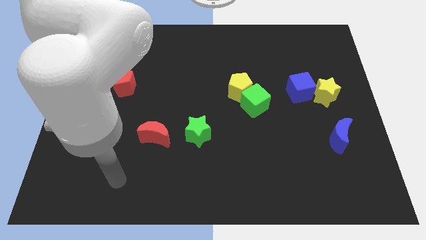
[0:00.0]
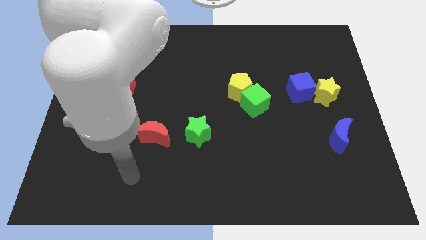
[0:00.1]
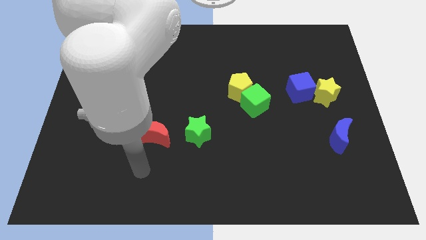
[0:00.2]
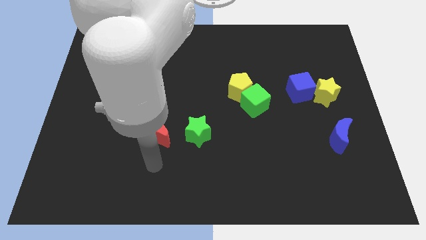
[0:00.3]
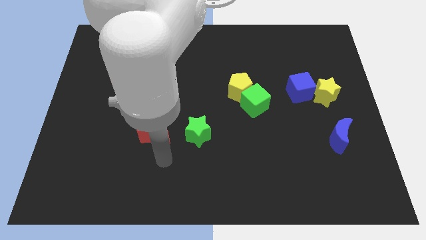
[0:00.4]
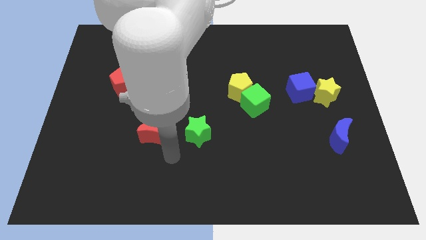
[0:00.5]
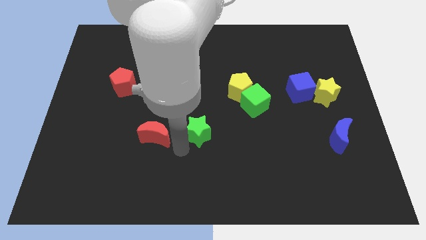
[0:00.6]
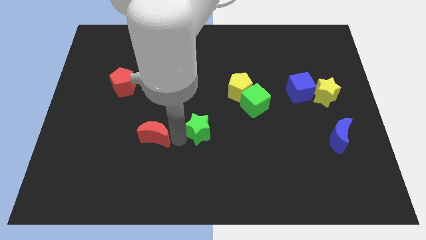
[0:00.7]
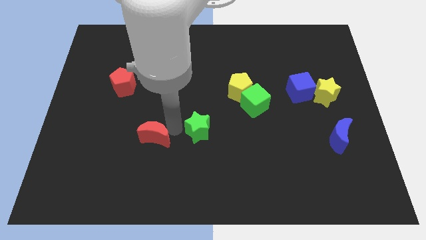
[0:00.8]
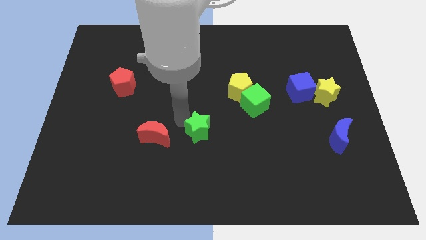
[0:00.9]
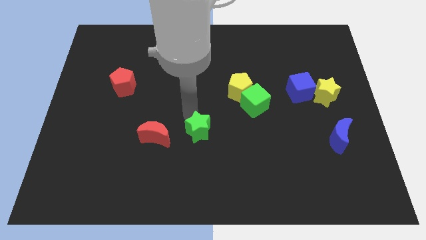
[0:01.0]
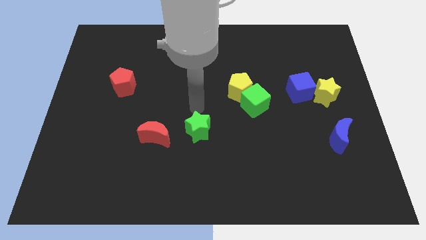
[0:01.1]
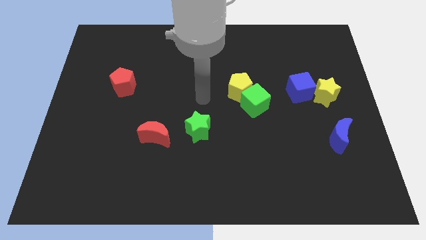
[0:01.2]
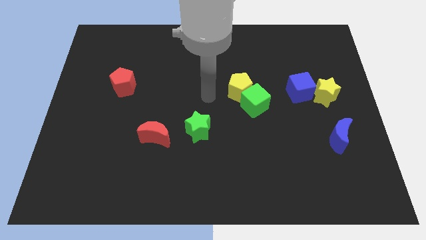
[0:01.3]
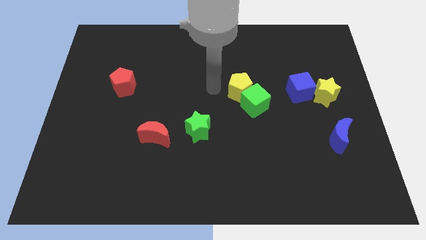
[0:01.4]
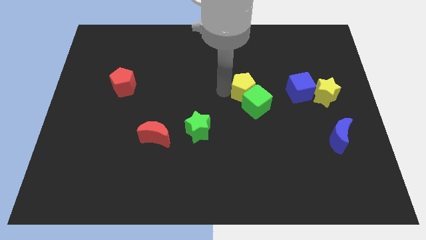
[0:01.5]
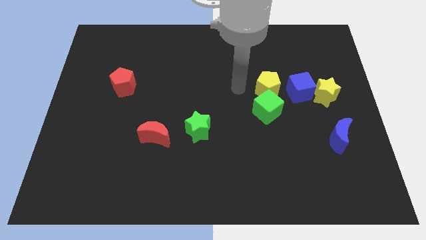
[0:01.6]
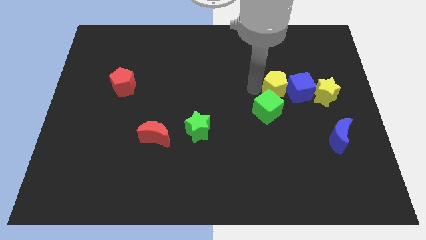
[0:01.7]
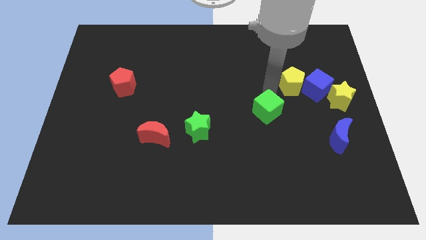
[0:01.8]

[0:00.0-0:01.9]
separate the green cube from the yellow pentagon

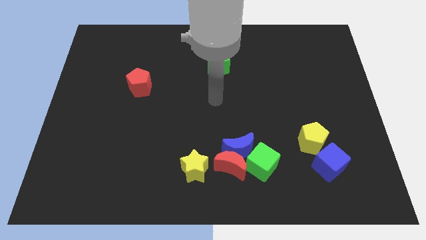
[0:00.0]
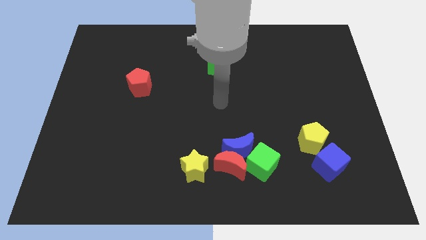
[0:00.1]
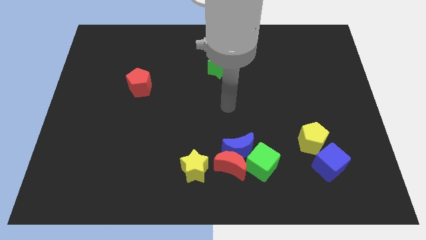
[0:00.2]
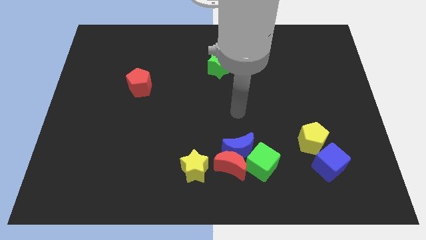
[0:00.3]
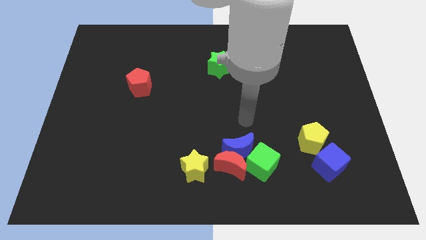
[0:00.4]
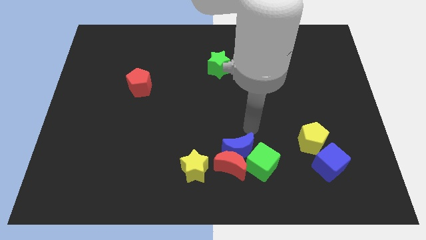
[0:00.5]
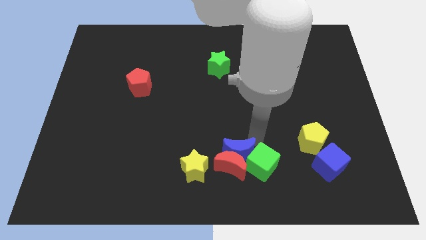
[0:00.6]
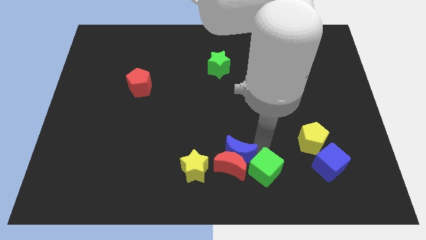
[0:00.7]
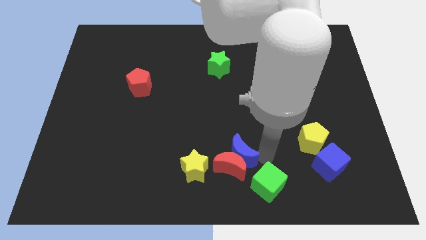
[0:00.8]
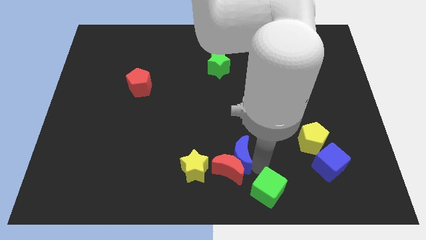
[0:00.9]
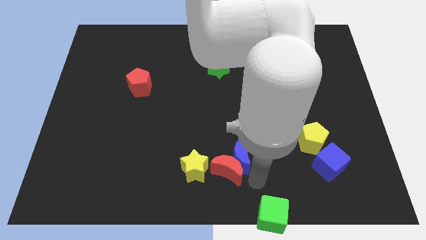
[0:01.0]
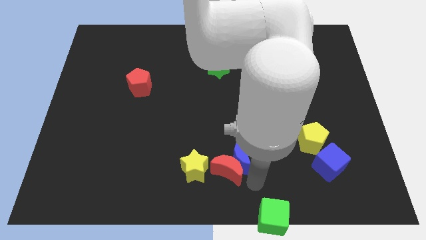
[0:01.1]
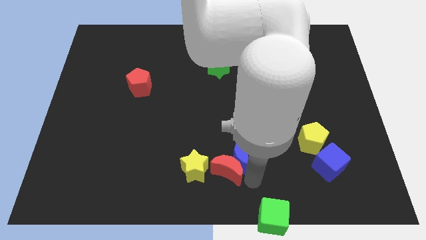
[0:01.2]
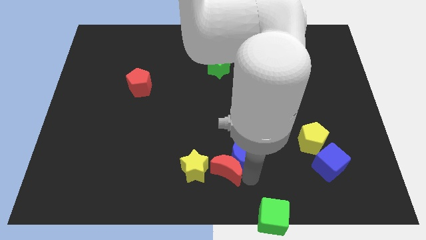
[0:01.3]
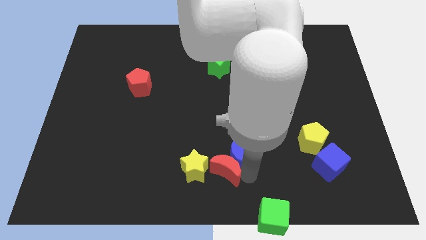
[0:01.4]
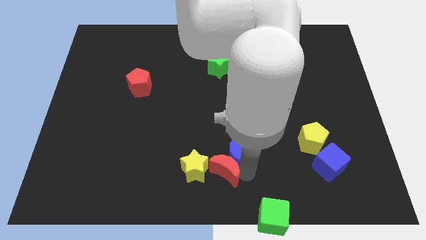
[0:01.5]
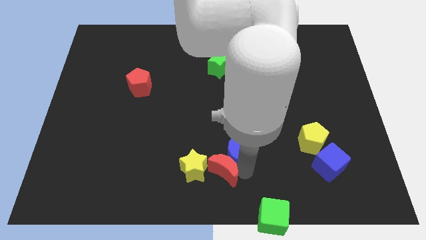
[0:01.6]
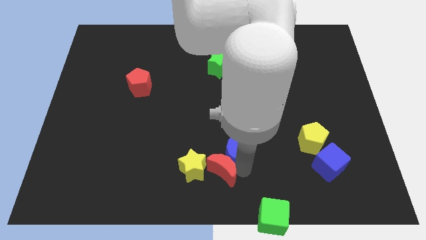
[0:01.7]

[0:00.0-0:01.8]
move the blue moon away from the red moon and green cube

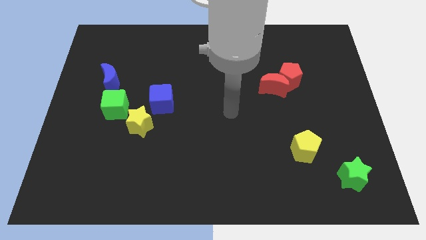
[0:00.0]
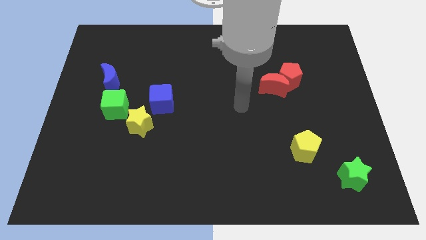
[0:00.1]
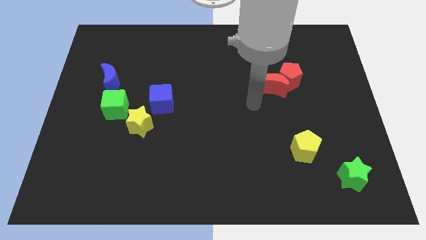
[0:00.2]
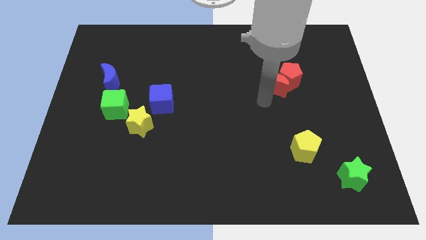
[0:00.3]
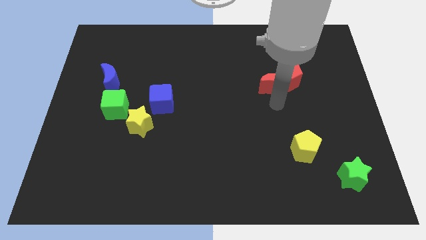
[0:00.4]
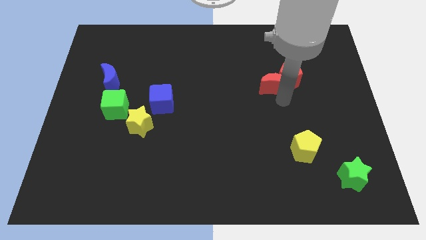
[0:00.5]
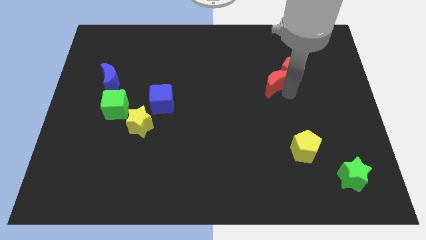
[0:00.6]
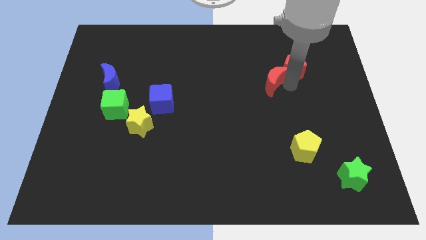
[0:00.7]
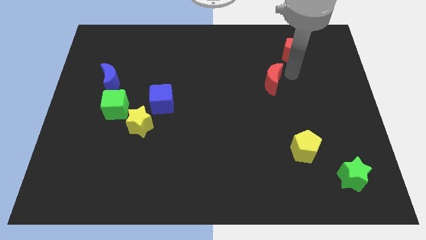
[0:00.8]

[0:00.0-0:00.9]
separate the red moon from the red pentagon

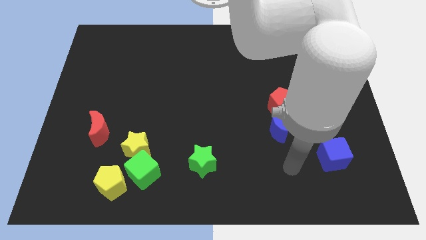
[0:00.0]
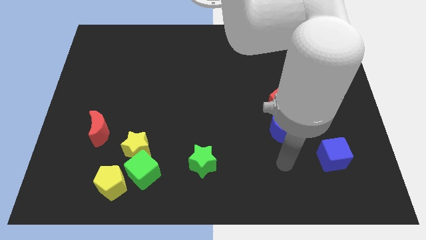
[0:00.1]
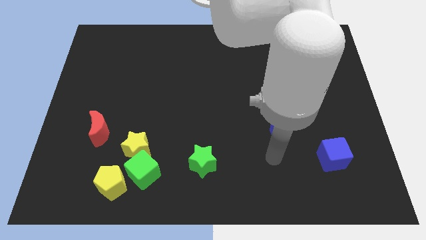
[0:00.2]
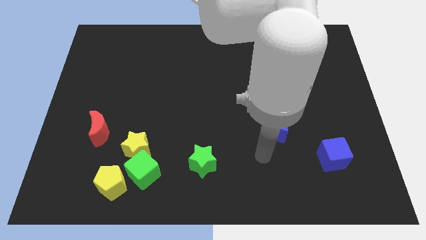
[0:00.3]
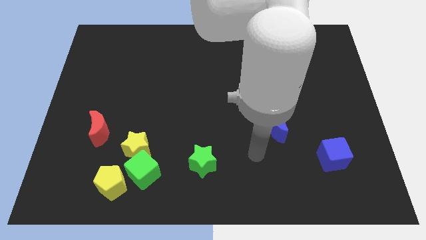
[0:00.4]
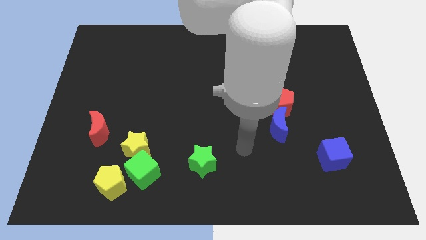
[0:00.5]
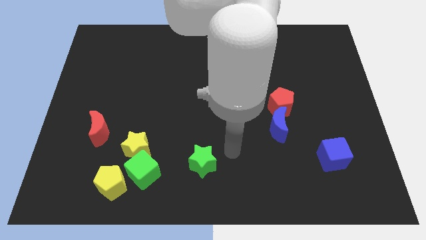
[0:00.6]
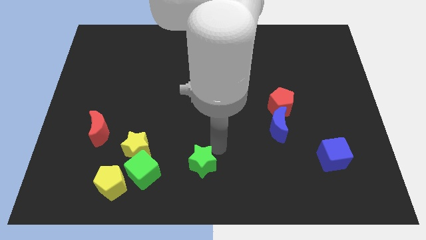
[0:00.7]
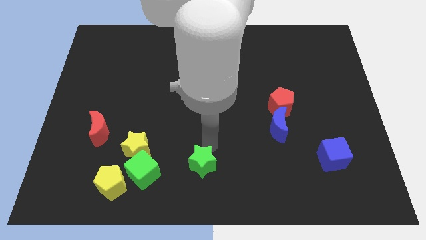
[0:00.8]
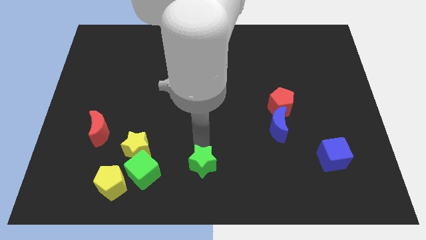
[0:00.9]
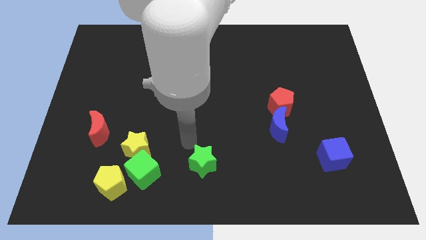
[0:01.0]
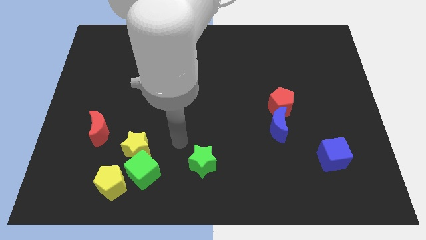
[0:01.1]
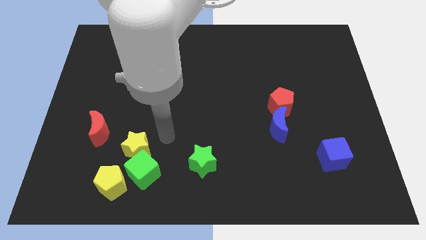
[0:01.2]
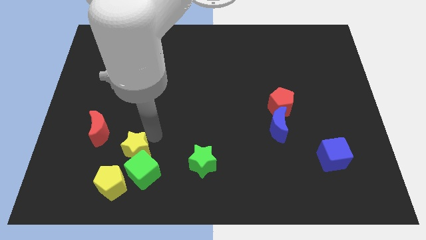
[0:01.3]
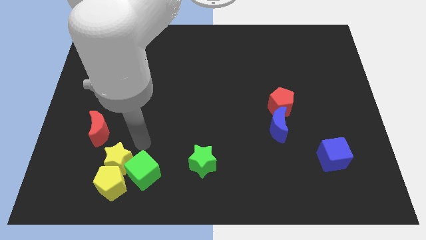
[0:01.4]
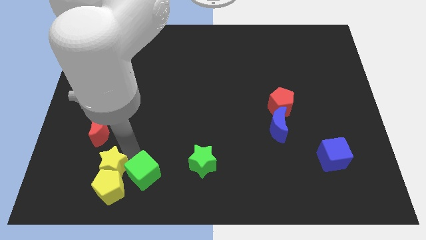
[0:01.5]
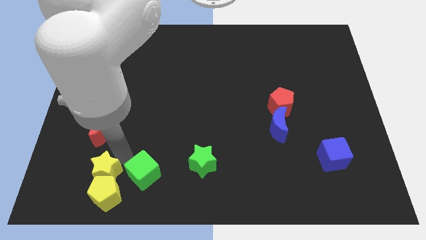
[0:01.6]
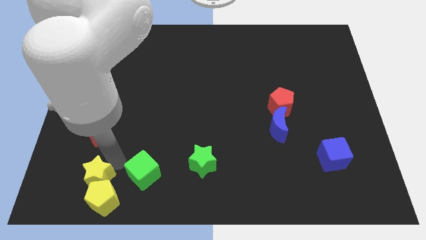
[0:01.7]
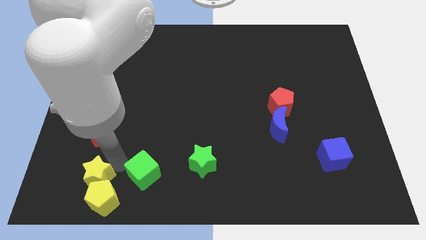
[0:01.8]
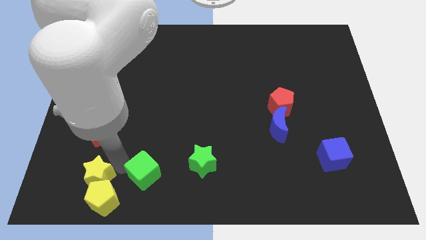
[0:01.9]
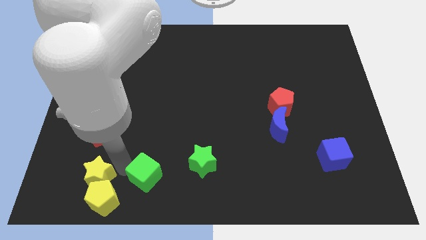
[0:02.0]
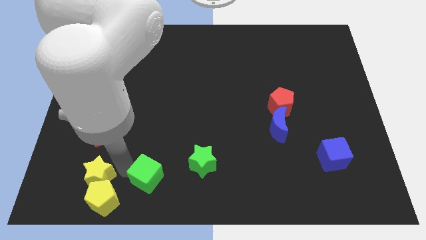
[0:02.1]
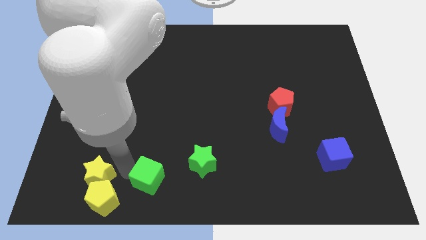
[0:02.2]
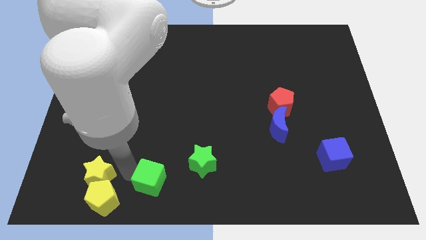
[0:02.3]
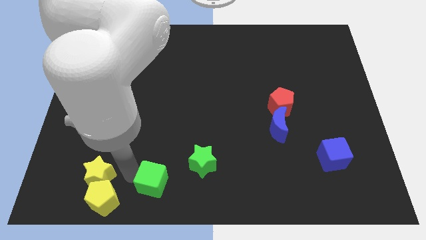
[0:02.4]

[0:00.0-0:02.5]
separate the green cube from the yellow star and yellow pentagon

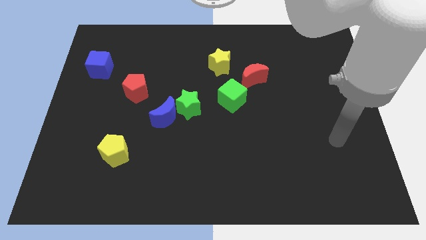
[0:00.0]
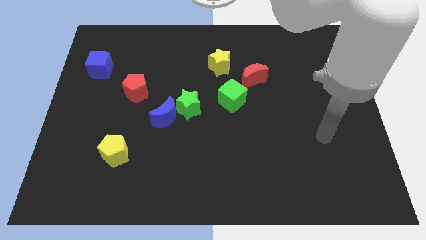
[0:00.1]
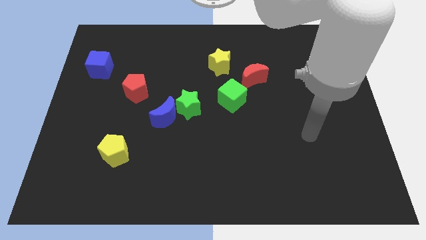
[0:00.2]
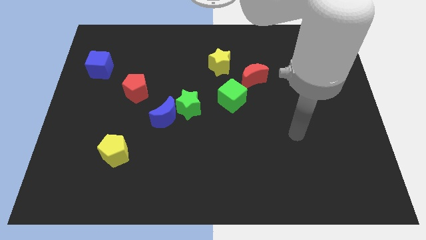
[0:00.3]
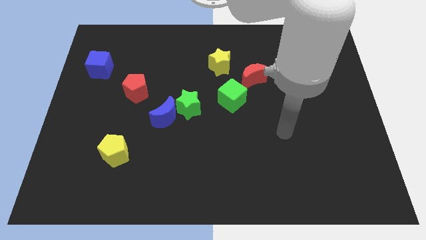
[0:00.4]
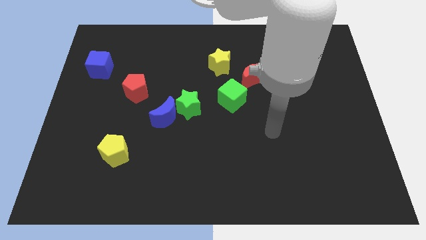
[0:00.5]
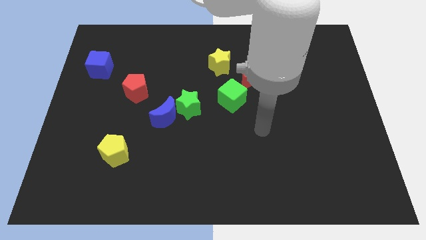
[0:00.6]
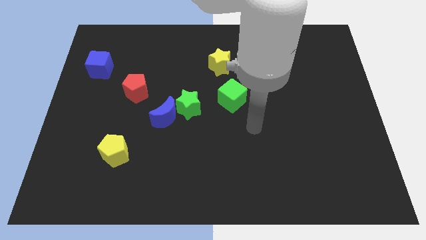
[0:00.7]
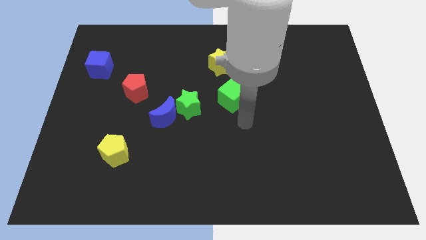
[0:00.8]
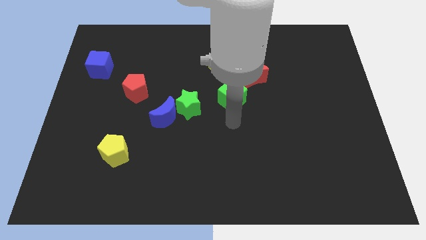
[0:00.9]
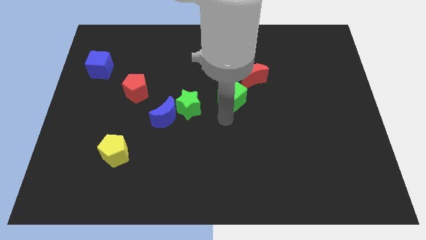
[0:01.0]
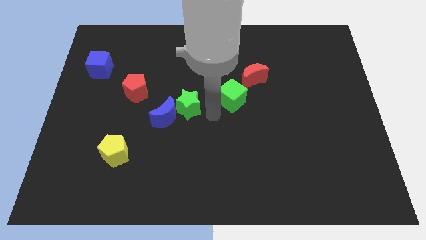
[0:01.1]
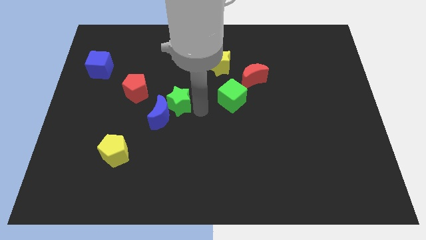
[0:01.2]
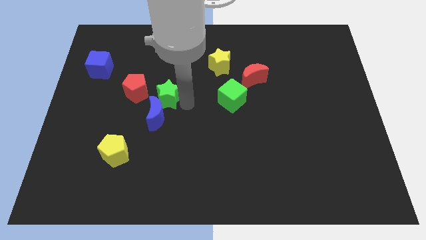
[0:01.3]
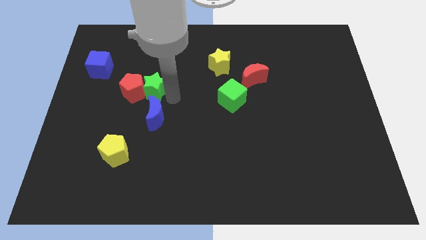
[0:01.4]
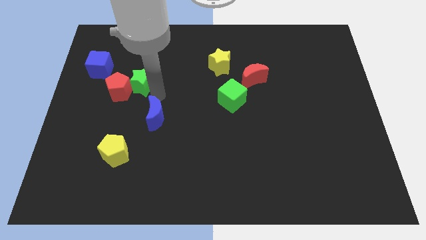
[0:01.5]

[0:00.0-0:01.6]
move the blue moon away from the green star

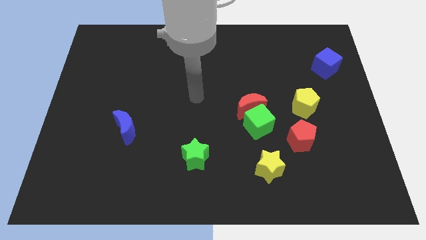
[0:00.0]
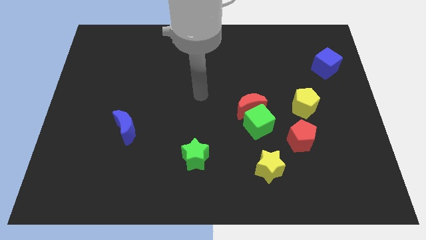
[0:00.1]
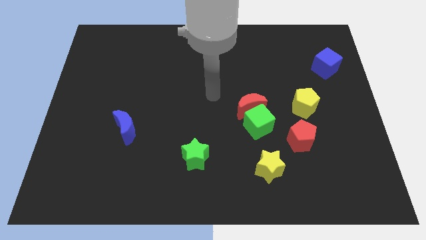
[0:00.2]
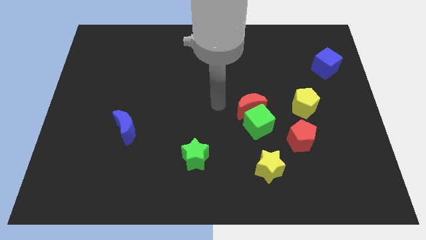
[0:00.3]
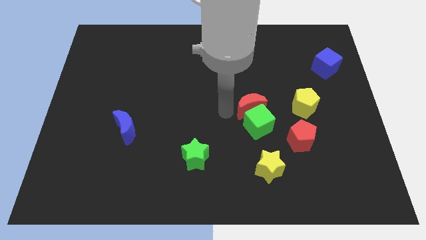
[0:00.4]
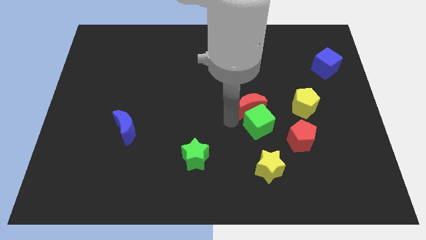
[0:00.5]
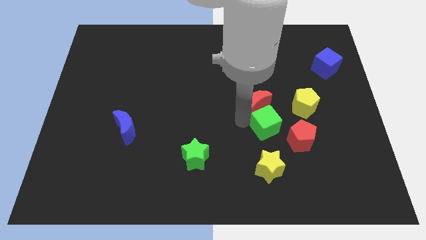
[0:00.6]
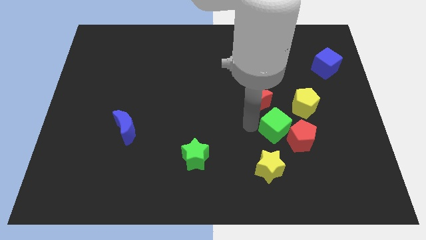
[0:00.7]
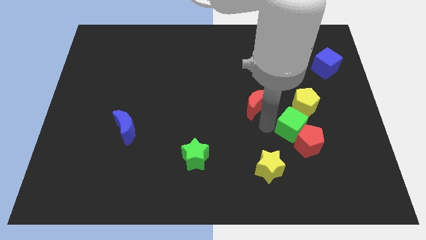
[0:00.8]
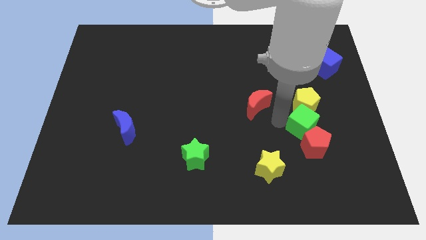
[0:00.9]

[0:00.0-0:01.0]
move the red moon away from the green cube
